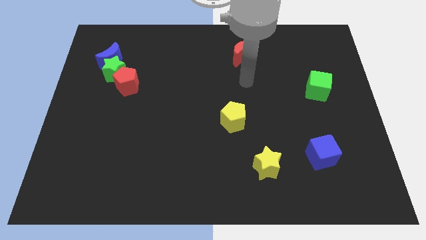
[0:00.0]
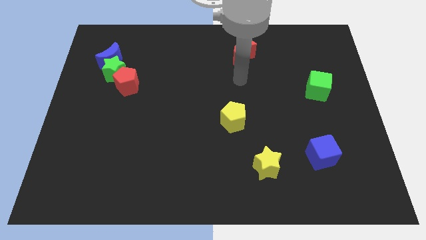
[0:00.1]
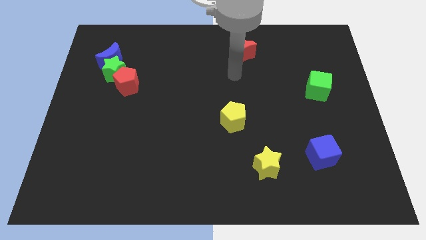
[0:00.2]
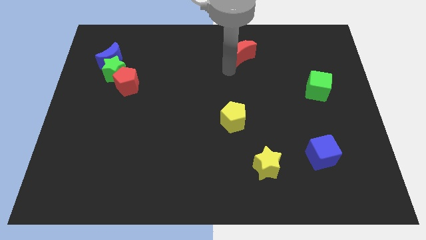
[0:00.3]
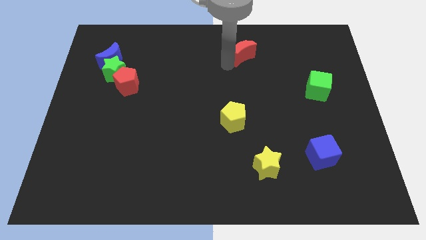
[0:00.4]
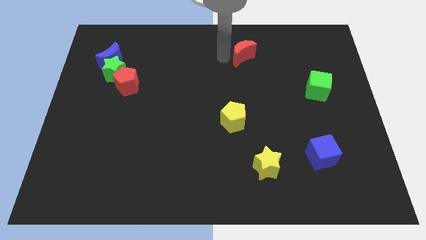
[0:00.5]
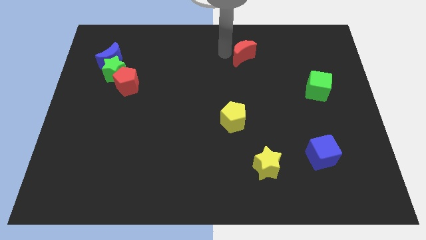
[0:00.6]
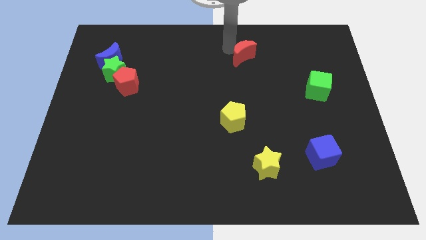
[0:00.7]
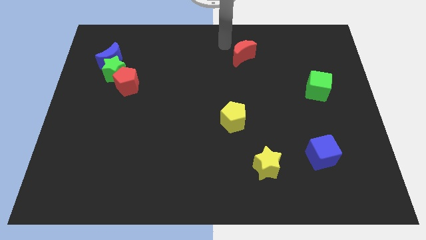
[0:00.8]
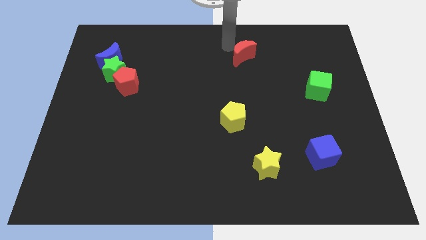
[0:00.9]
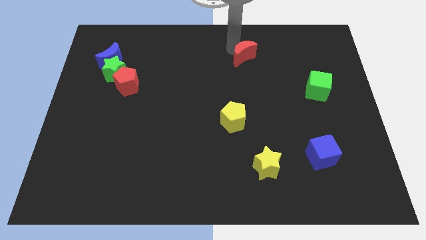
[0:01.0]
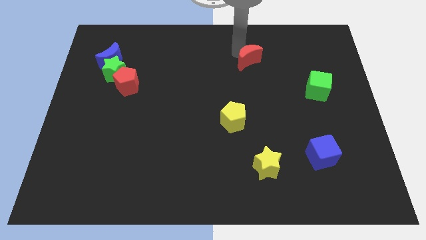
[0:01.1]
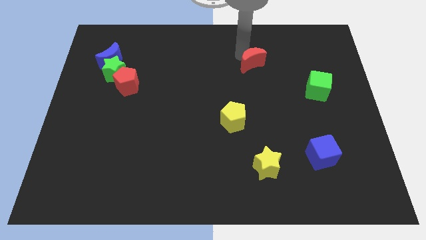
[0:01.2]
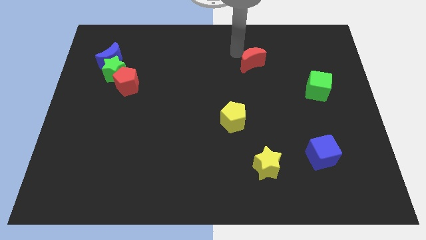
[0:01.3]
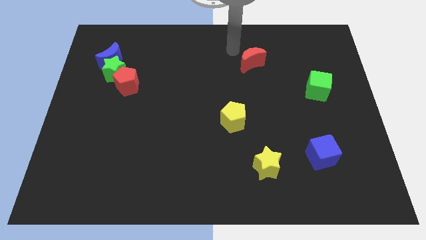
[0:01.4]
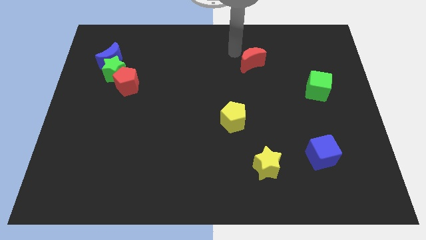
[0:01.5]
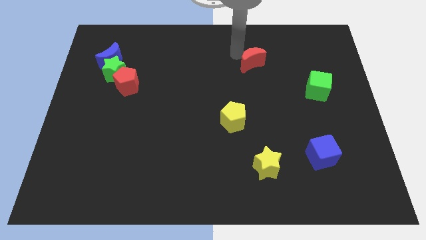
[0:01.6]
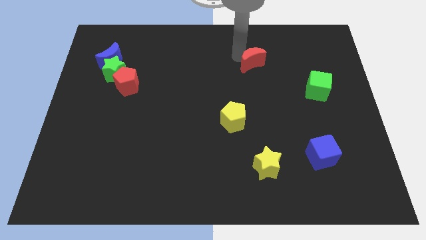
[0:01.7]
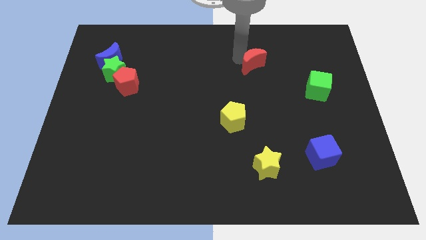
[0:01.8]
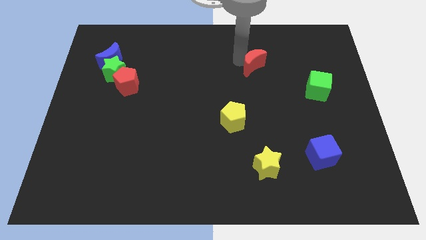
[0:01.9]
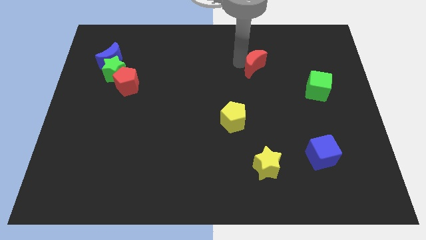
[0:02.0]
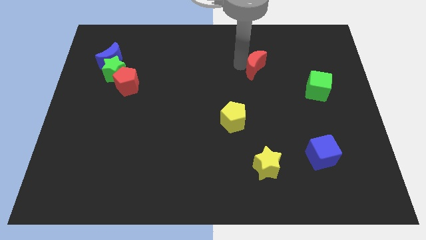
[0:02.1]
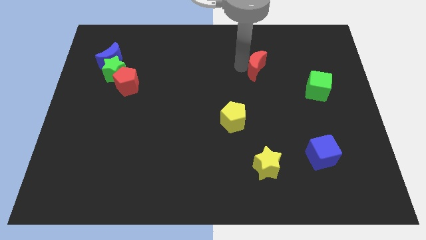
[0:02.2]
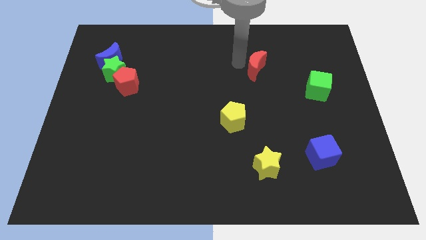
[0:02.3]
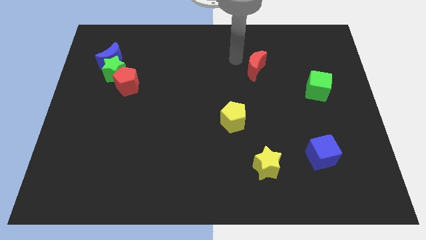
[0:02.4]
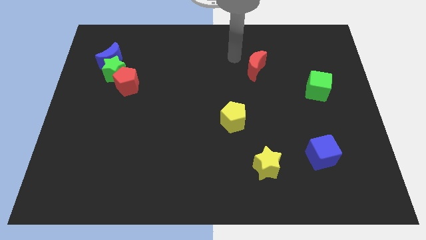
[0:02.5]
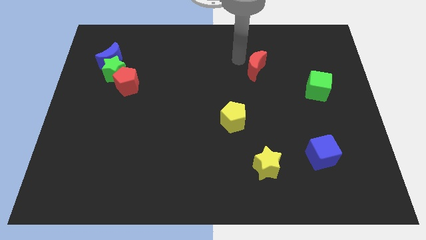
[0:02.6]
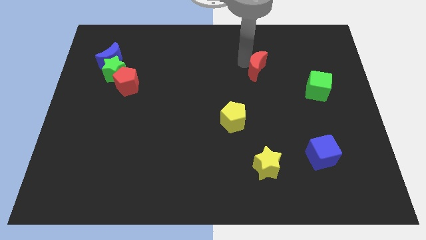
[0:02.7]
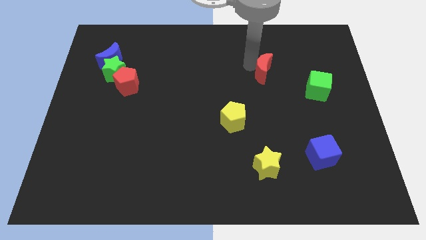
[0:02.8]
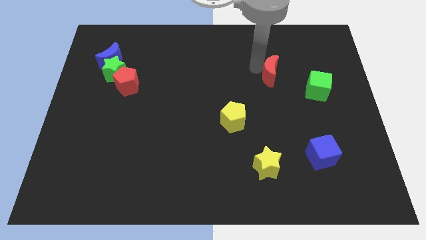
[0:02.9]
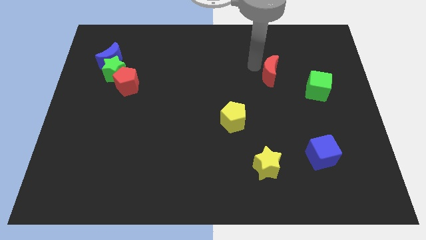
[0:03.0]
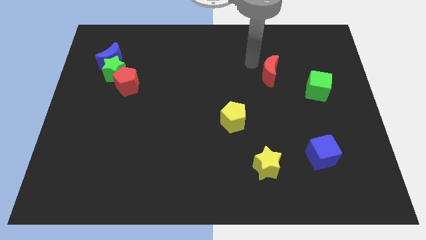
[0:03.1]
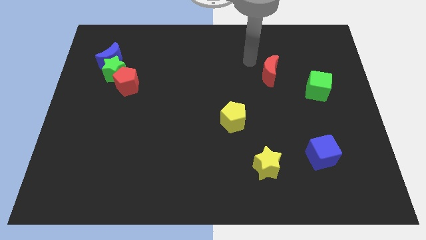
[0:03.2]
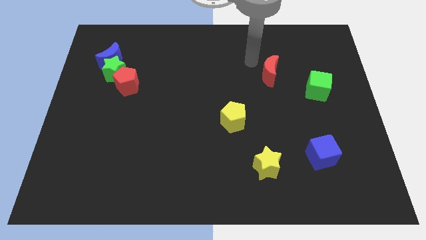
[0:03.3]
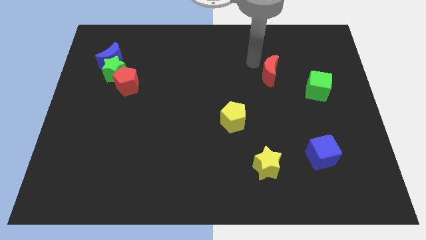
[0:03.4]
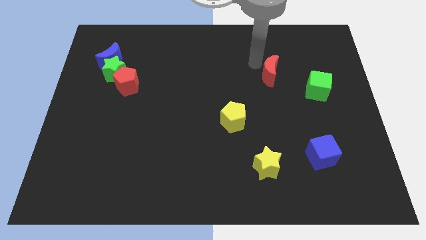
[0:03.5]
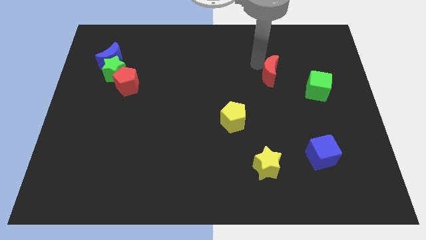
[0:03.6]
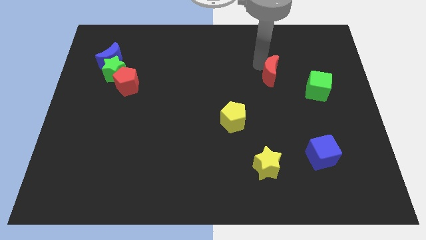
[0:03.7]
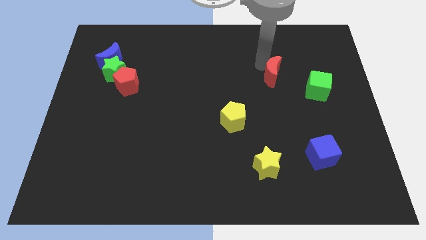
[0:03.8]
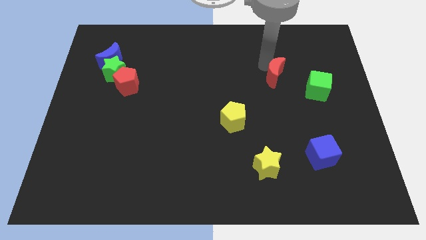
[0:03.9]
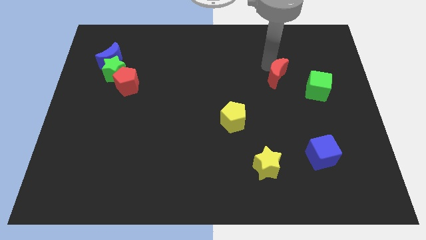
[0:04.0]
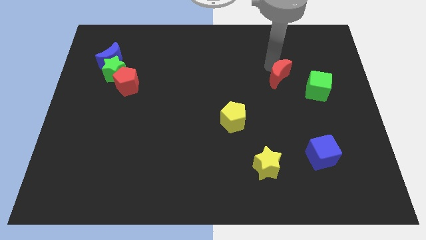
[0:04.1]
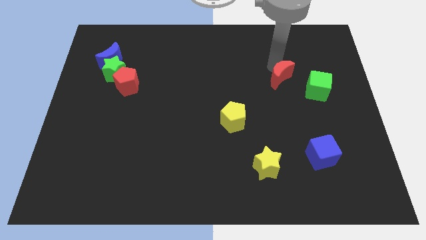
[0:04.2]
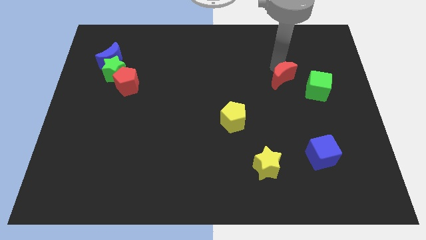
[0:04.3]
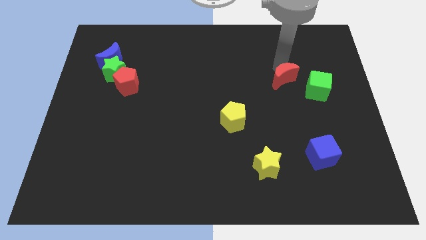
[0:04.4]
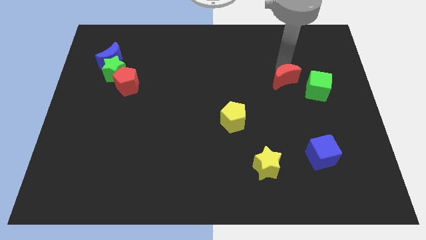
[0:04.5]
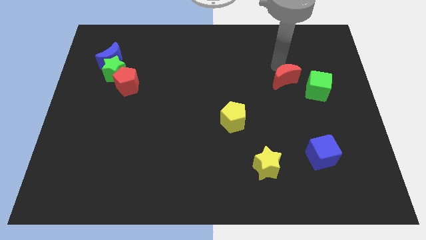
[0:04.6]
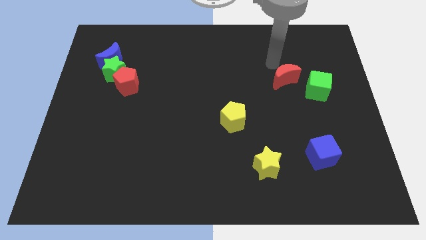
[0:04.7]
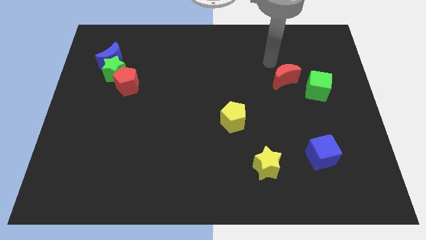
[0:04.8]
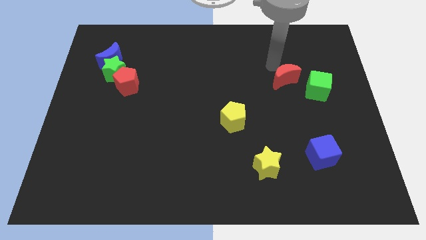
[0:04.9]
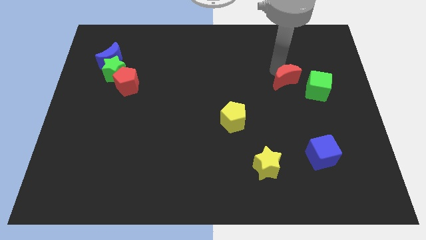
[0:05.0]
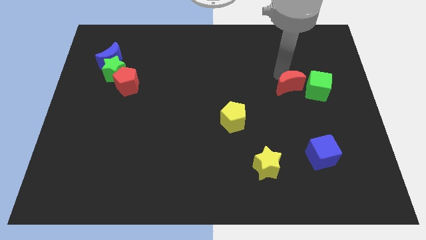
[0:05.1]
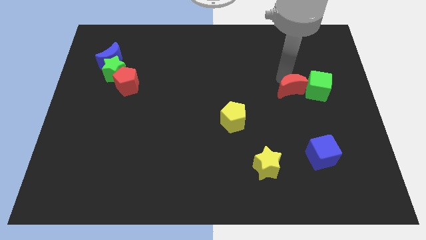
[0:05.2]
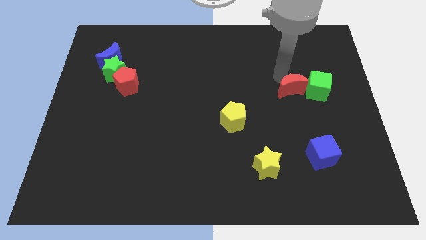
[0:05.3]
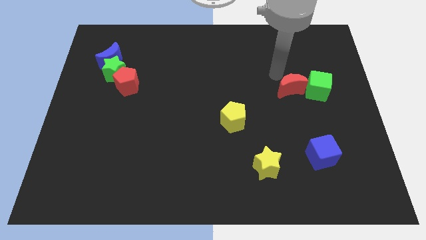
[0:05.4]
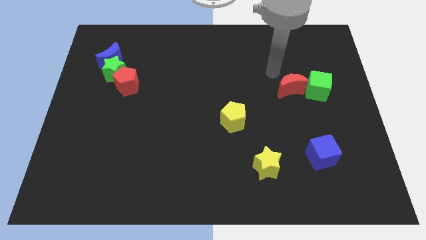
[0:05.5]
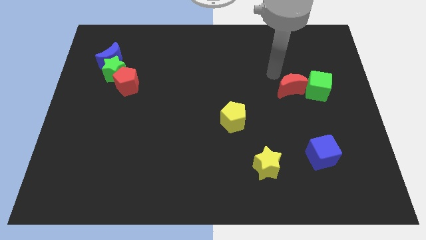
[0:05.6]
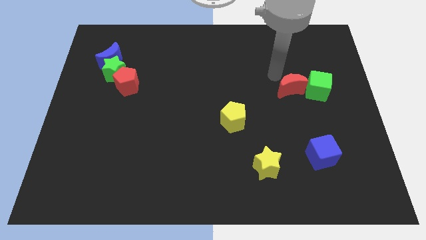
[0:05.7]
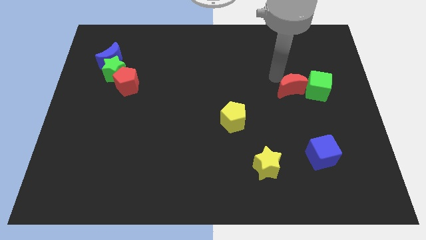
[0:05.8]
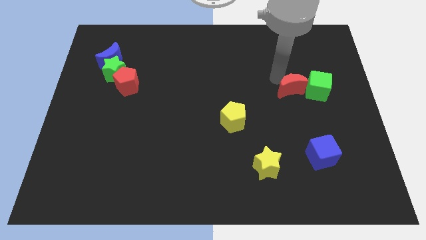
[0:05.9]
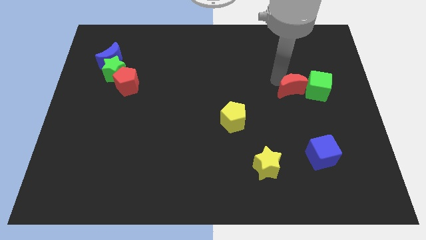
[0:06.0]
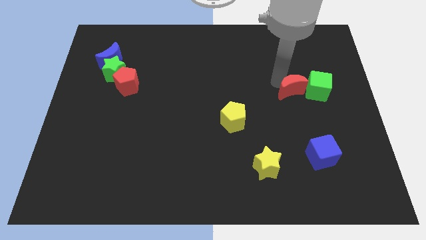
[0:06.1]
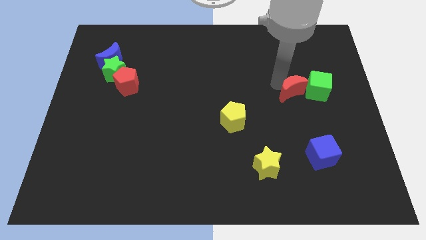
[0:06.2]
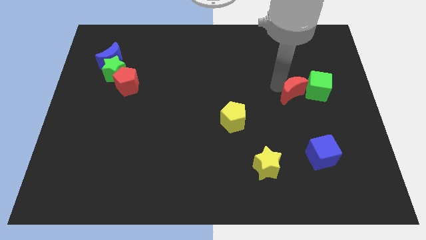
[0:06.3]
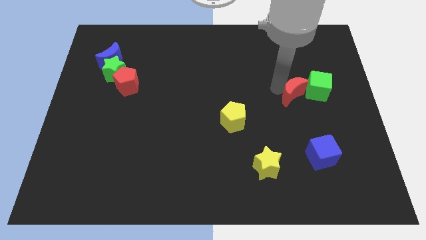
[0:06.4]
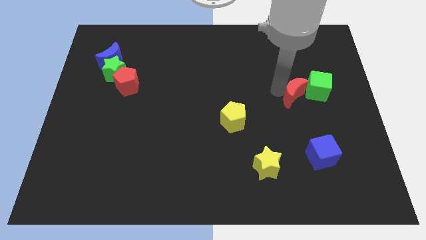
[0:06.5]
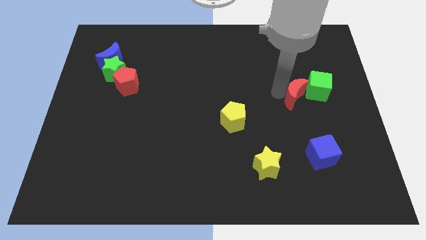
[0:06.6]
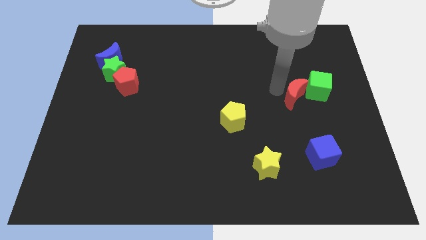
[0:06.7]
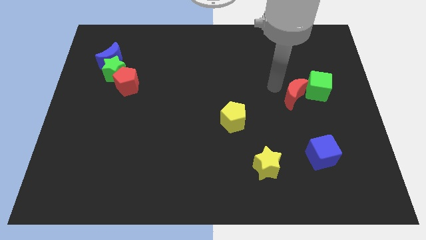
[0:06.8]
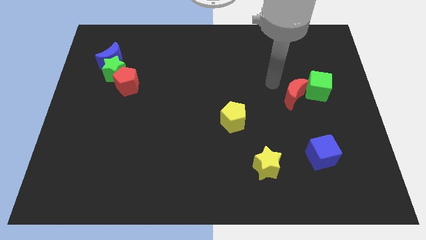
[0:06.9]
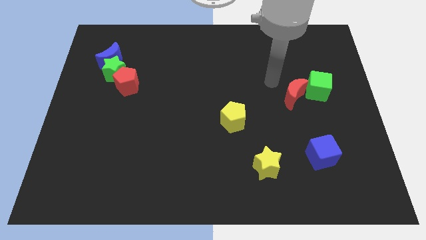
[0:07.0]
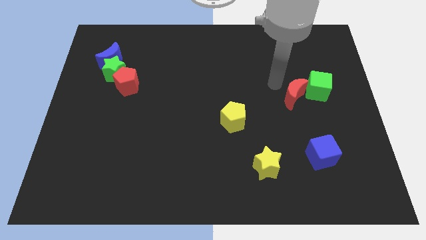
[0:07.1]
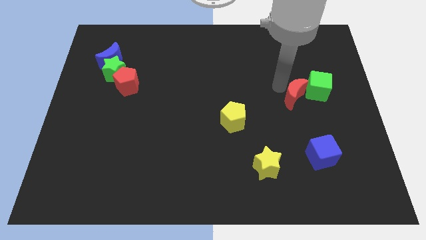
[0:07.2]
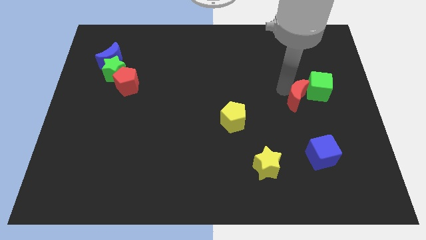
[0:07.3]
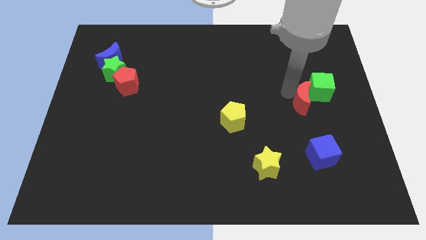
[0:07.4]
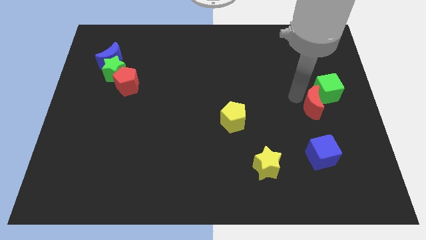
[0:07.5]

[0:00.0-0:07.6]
put the red moon below the green cube
